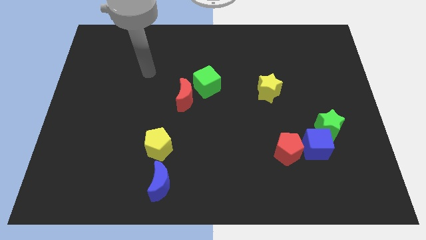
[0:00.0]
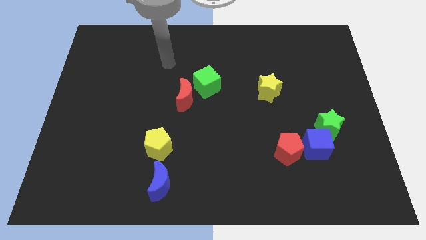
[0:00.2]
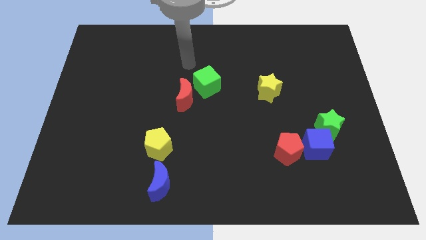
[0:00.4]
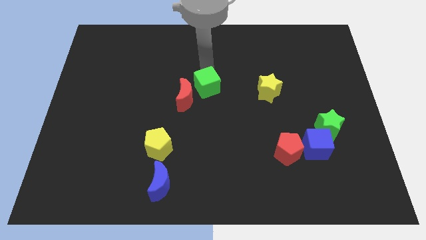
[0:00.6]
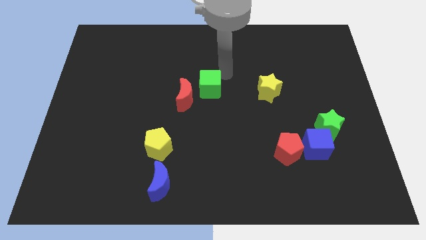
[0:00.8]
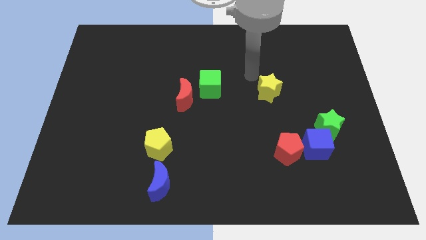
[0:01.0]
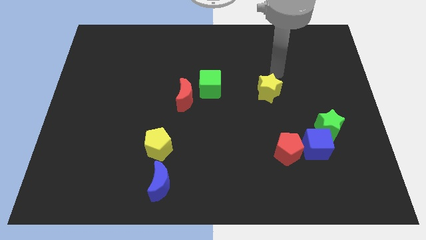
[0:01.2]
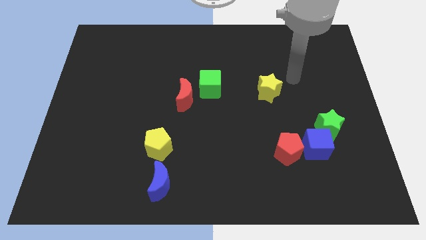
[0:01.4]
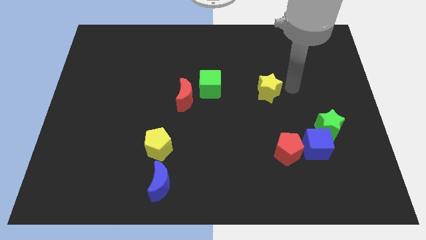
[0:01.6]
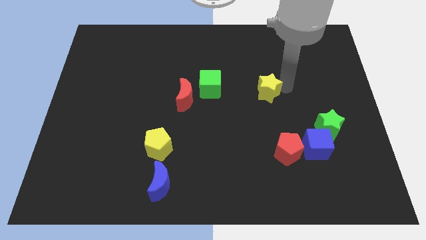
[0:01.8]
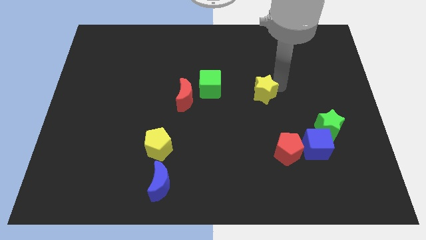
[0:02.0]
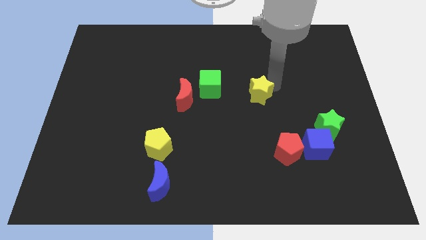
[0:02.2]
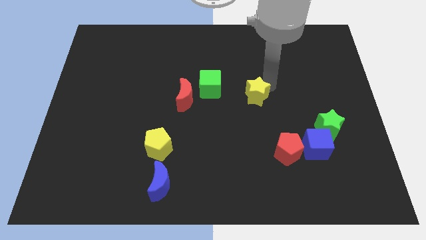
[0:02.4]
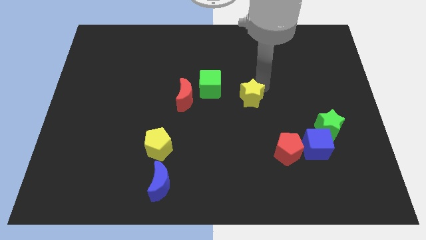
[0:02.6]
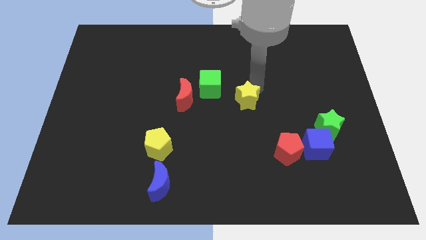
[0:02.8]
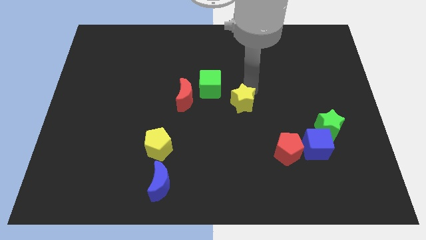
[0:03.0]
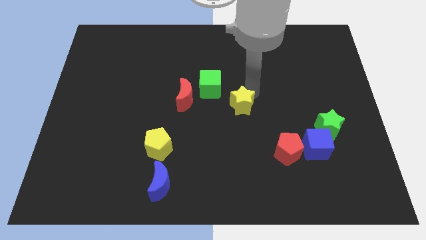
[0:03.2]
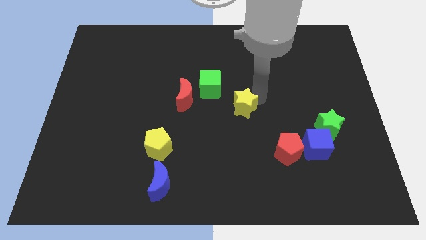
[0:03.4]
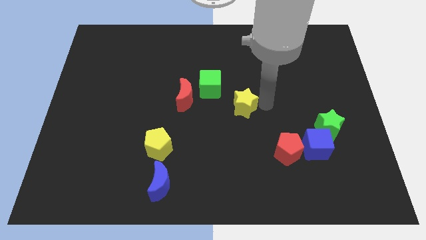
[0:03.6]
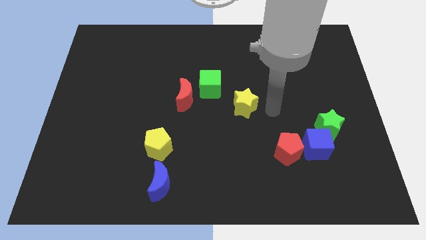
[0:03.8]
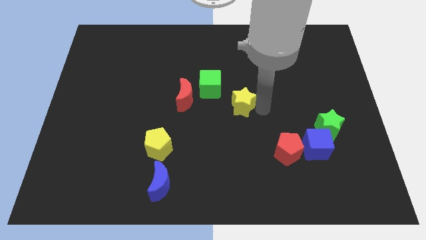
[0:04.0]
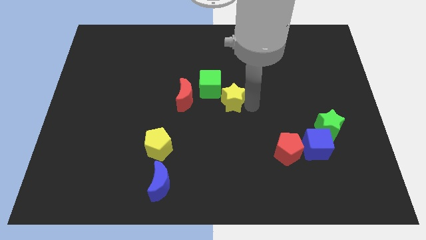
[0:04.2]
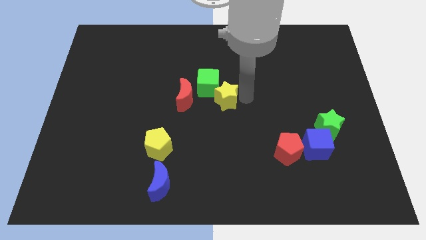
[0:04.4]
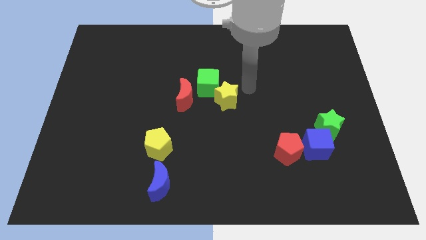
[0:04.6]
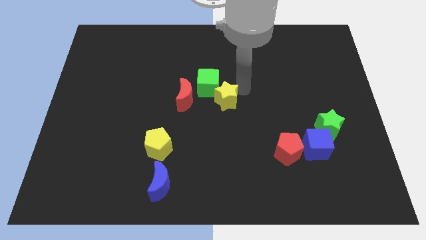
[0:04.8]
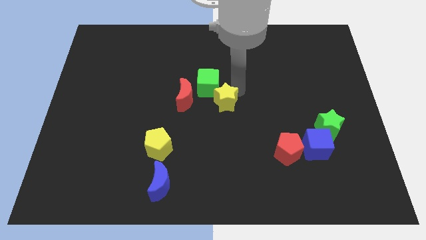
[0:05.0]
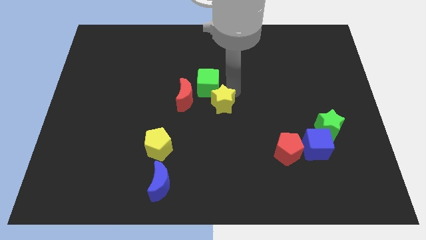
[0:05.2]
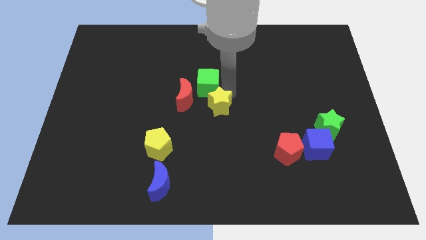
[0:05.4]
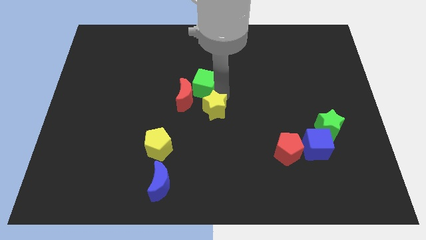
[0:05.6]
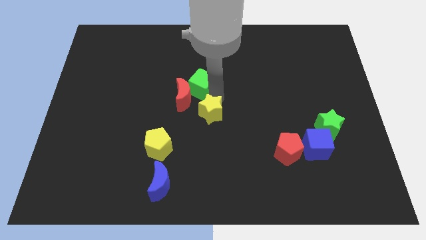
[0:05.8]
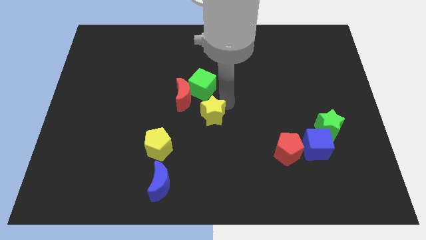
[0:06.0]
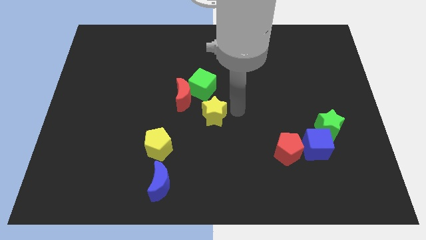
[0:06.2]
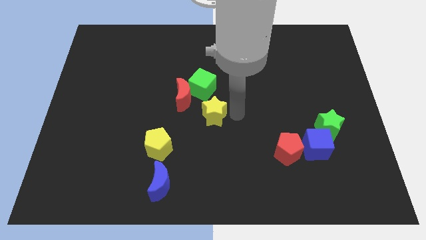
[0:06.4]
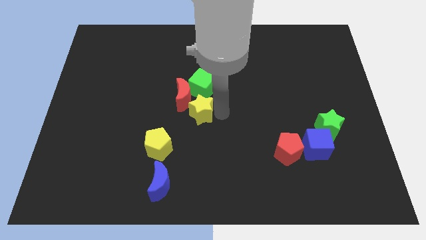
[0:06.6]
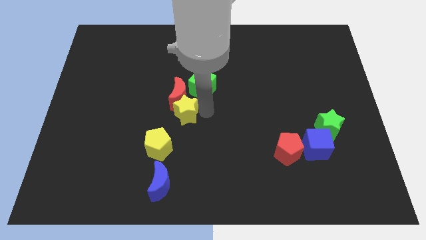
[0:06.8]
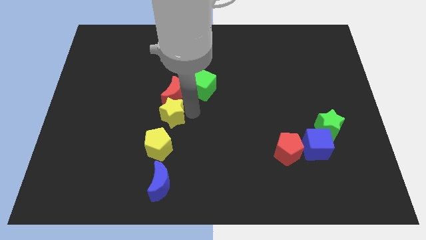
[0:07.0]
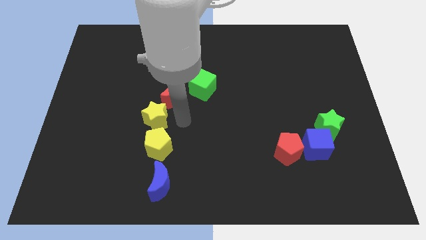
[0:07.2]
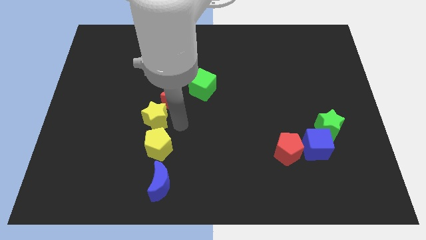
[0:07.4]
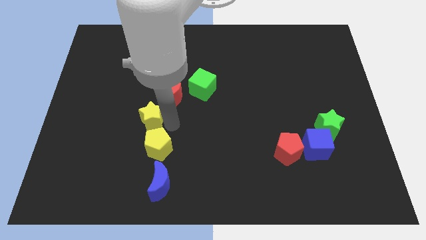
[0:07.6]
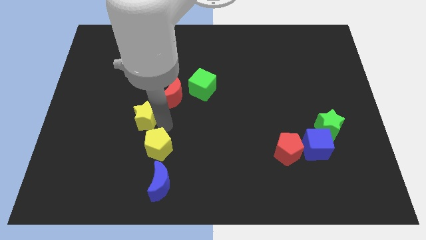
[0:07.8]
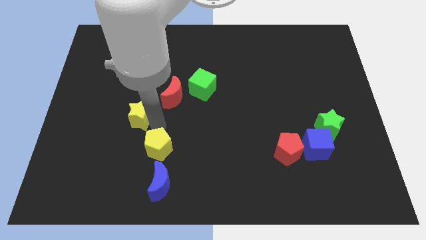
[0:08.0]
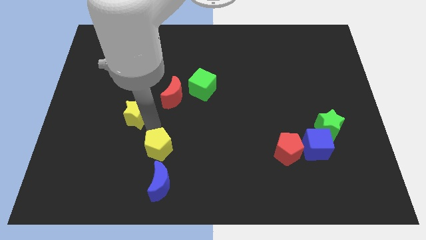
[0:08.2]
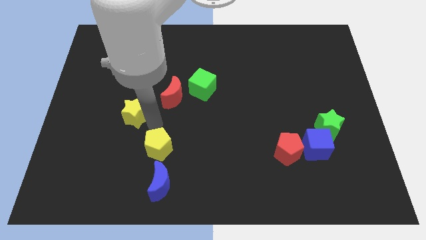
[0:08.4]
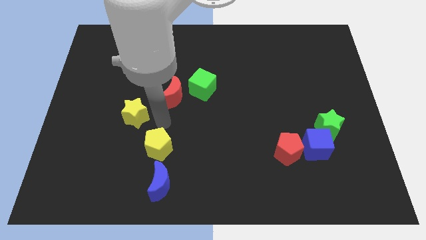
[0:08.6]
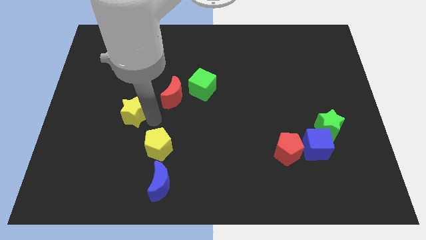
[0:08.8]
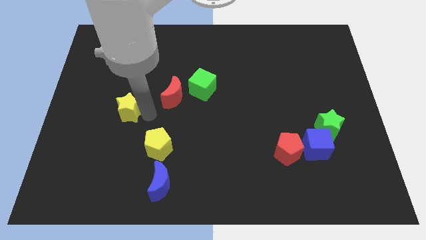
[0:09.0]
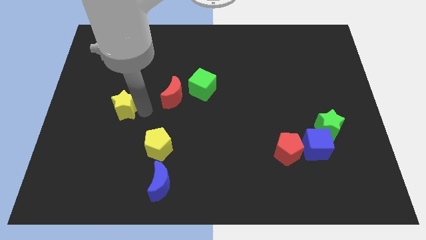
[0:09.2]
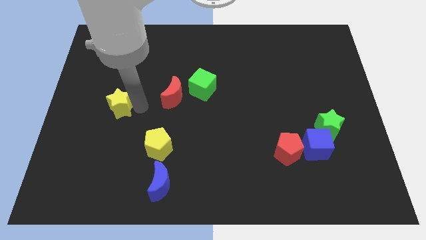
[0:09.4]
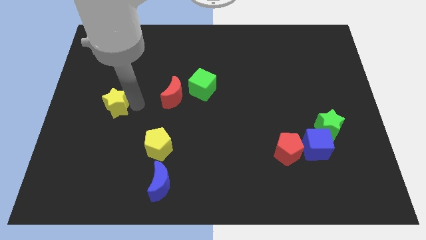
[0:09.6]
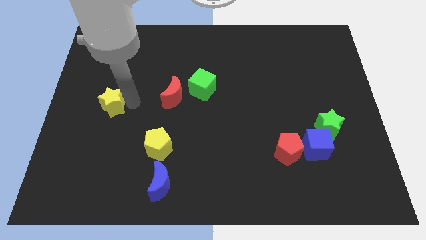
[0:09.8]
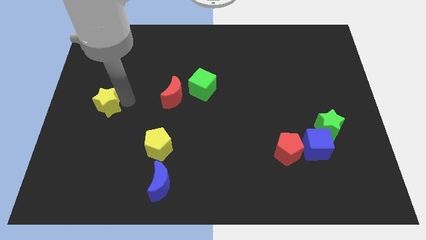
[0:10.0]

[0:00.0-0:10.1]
push the yellow star to the left side
